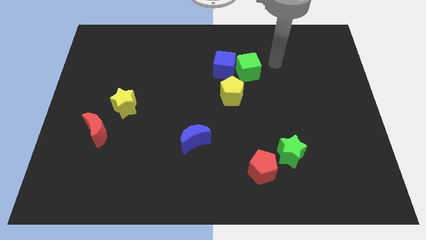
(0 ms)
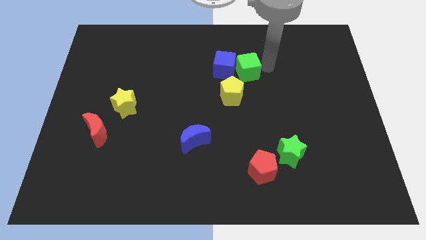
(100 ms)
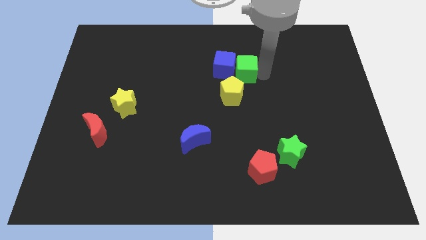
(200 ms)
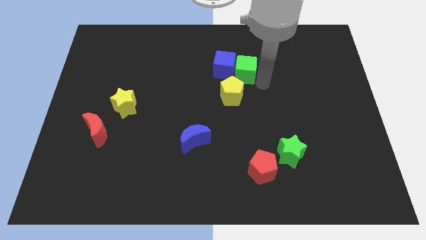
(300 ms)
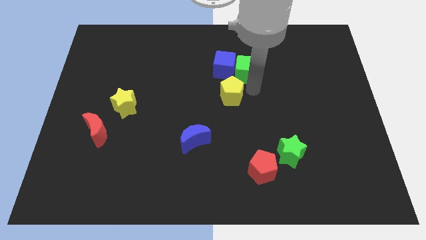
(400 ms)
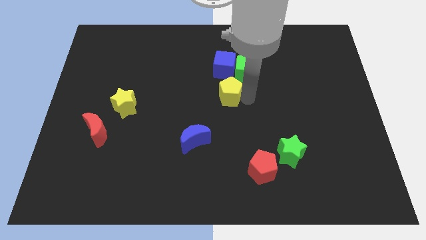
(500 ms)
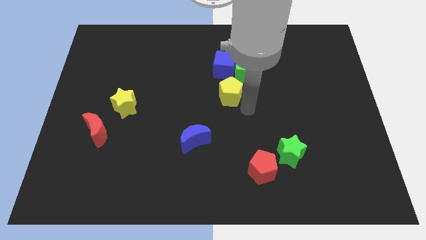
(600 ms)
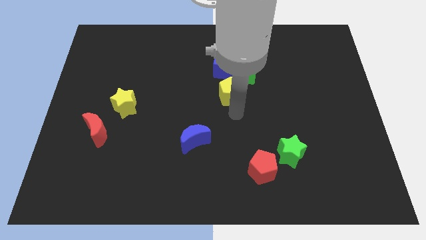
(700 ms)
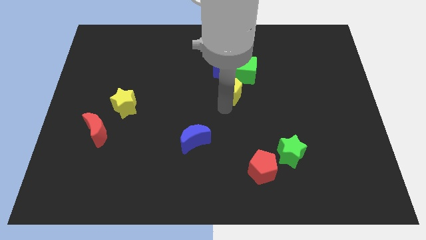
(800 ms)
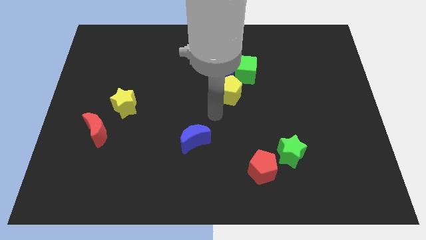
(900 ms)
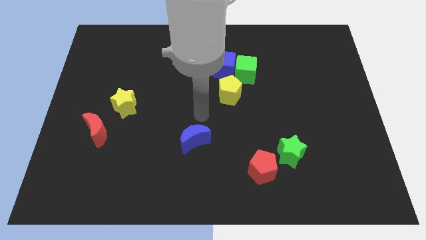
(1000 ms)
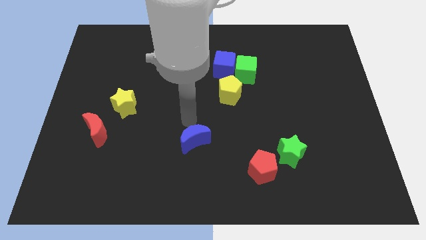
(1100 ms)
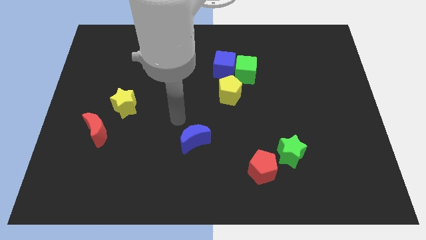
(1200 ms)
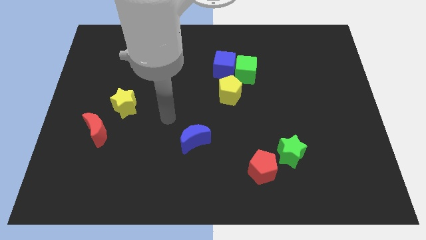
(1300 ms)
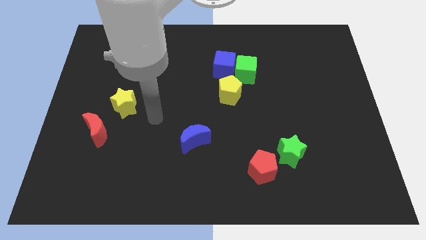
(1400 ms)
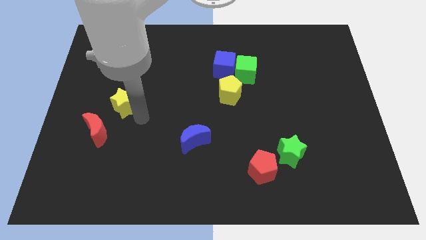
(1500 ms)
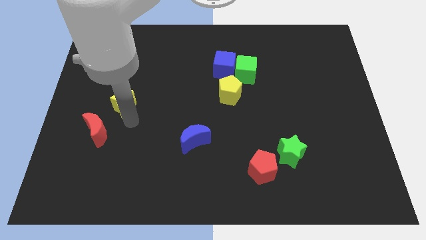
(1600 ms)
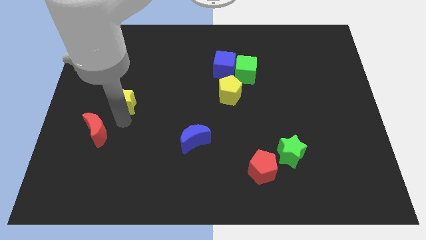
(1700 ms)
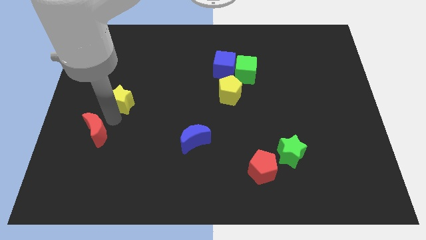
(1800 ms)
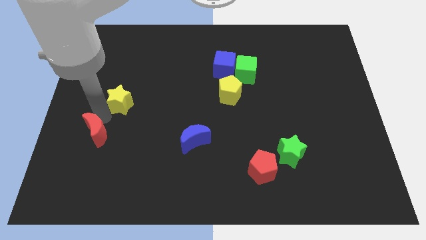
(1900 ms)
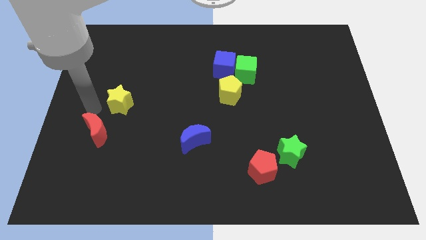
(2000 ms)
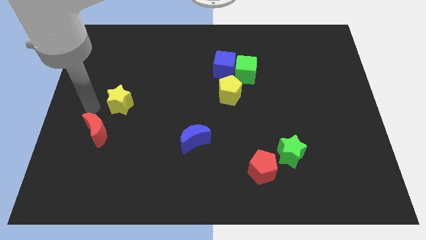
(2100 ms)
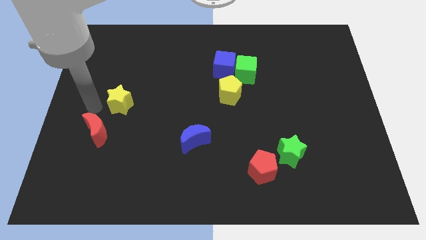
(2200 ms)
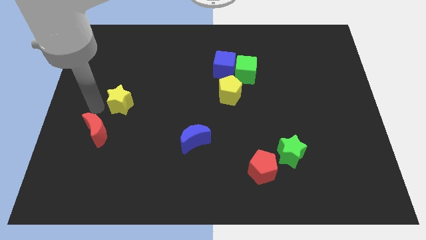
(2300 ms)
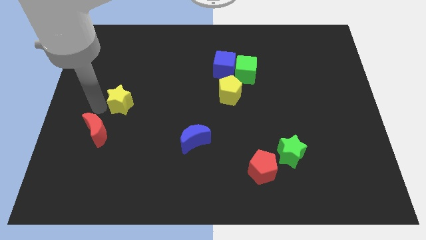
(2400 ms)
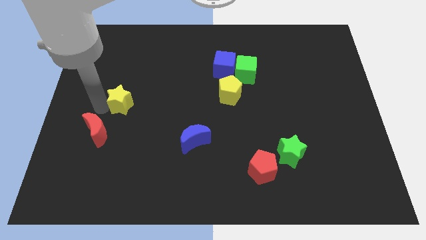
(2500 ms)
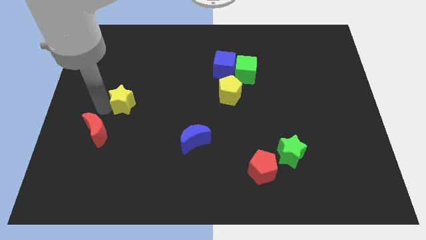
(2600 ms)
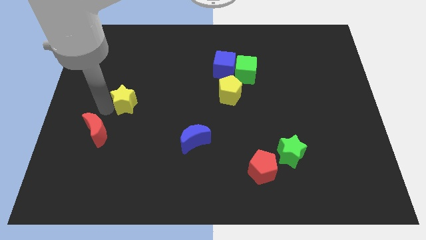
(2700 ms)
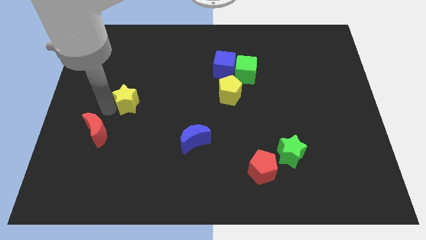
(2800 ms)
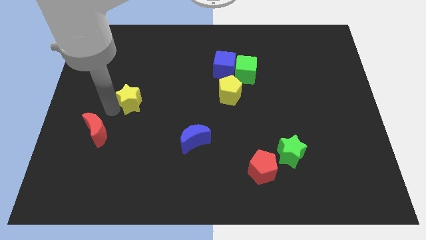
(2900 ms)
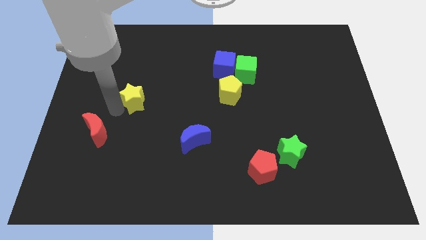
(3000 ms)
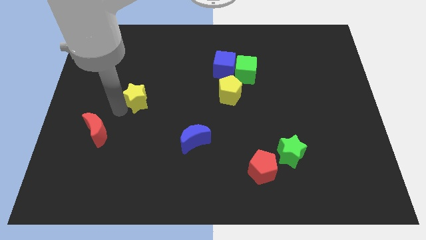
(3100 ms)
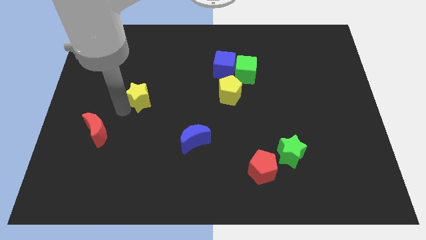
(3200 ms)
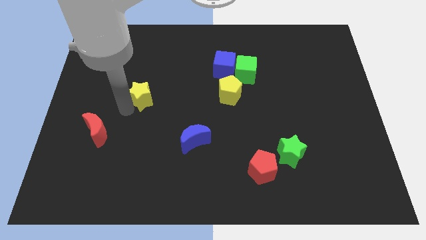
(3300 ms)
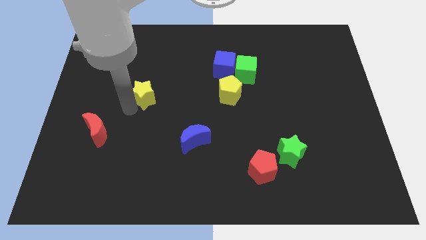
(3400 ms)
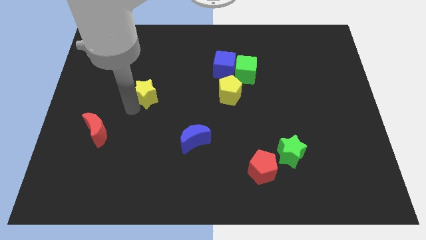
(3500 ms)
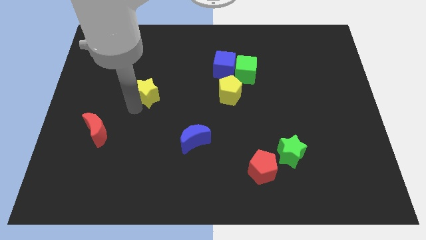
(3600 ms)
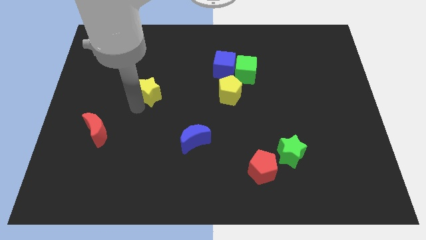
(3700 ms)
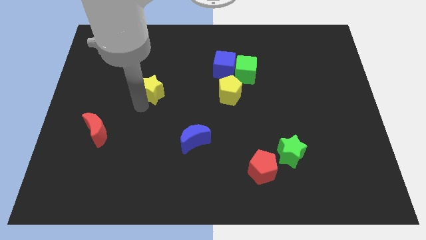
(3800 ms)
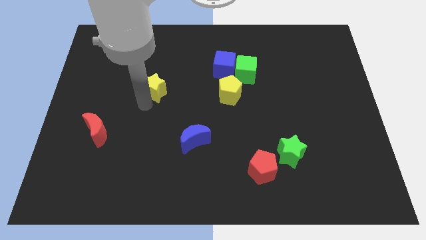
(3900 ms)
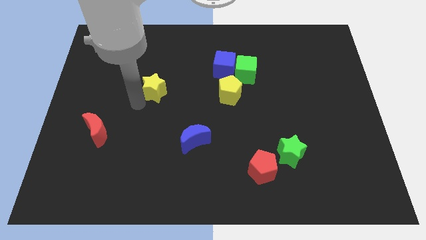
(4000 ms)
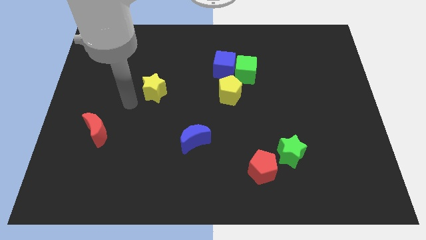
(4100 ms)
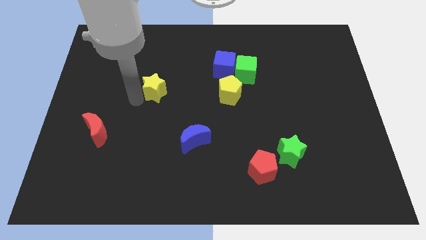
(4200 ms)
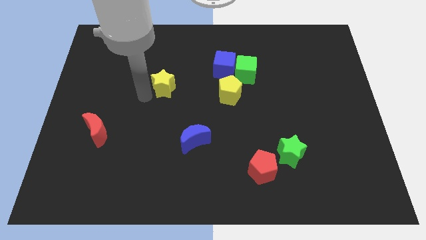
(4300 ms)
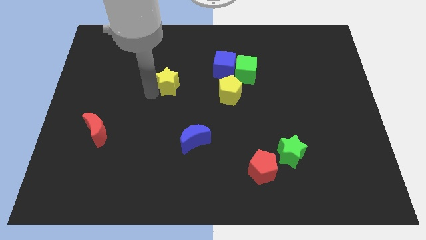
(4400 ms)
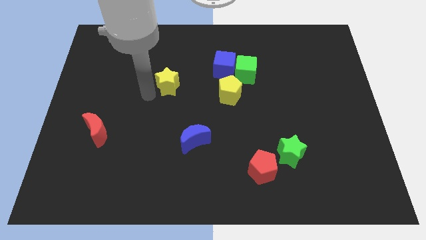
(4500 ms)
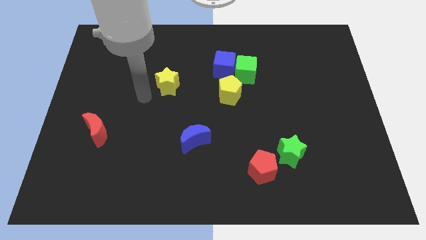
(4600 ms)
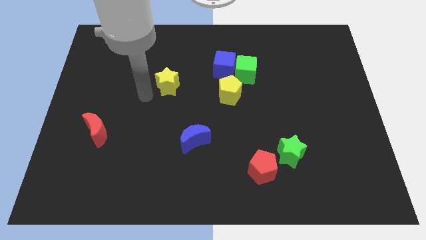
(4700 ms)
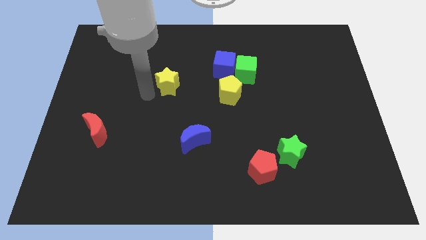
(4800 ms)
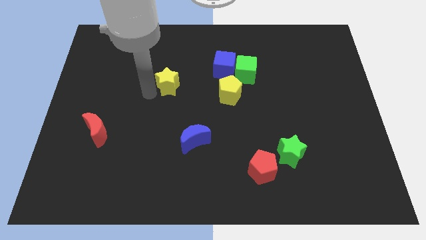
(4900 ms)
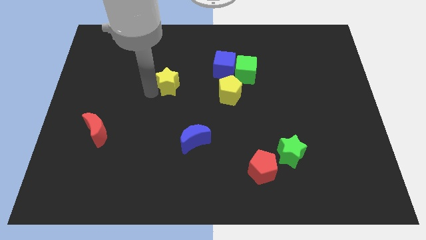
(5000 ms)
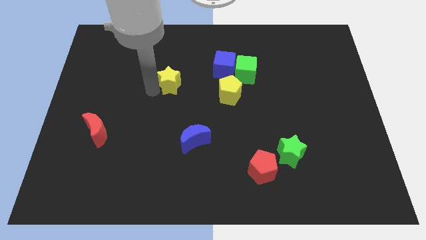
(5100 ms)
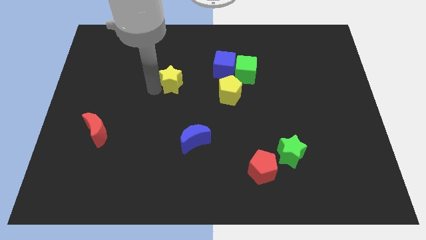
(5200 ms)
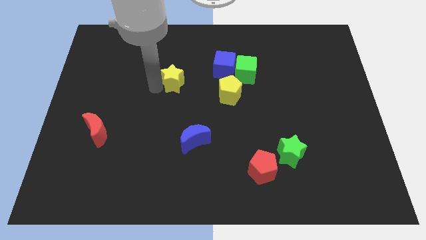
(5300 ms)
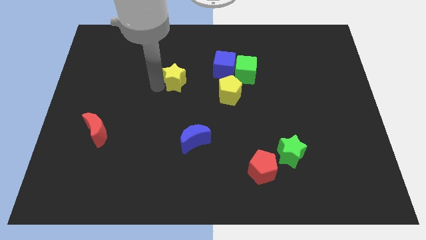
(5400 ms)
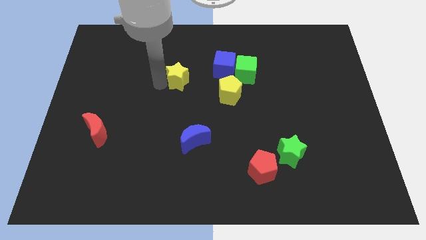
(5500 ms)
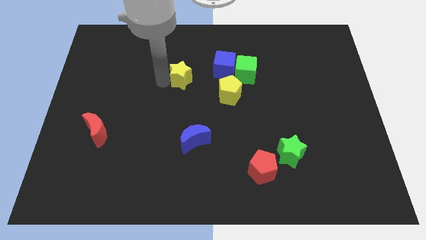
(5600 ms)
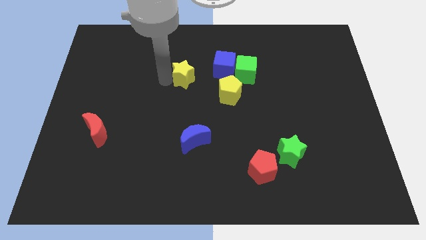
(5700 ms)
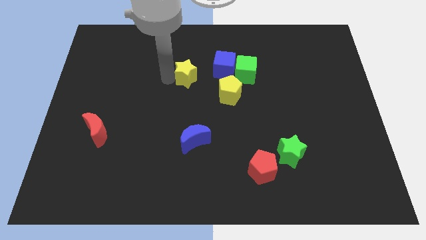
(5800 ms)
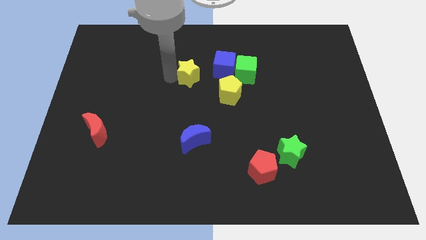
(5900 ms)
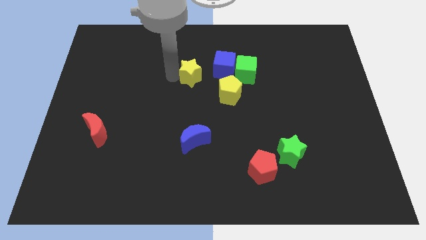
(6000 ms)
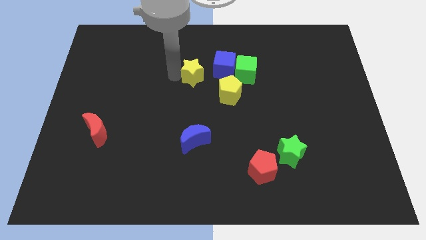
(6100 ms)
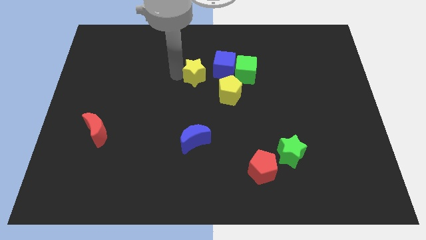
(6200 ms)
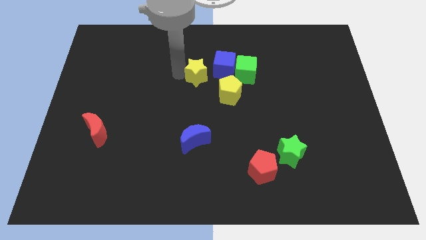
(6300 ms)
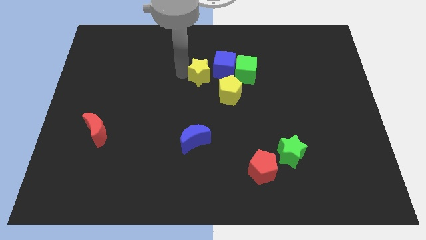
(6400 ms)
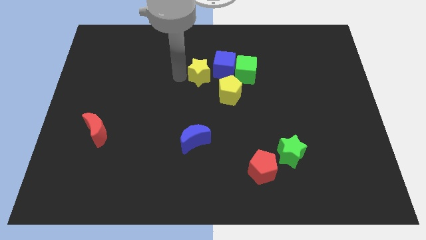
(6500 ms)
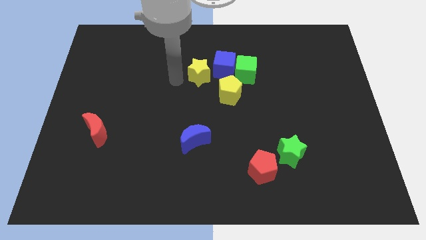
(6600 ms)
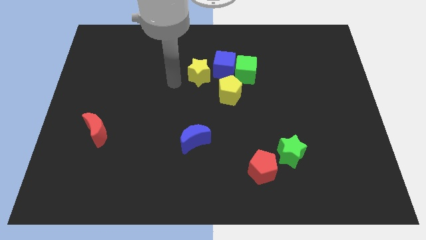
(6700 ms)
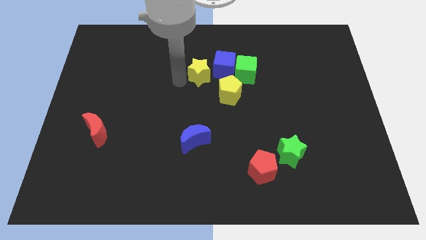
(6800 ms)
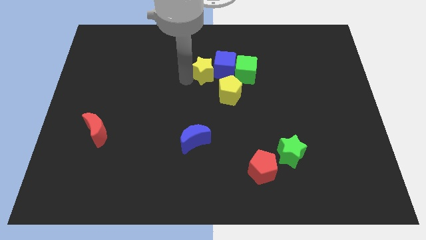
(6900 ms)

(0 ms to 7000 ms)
move the yellow star close to the blue cube

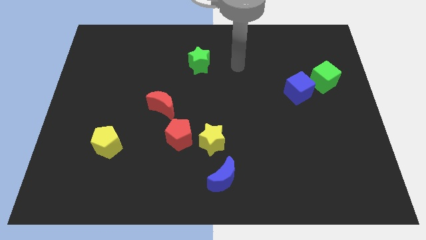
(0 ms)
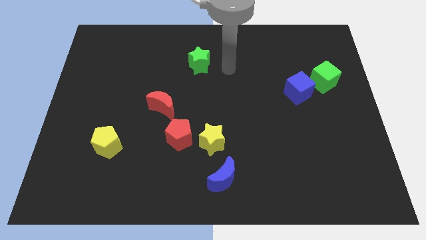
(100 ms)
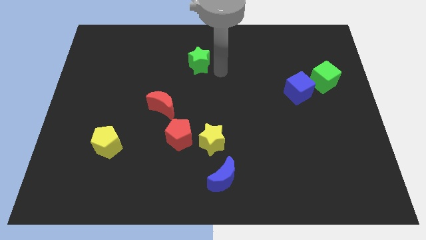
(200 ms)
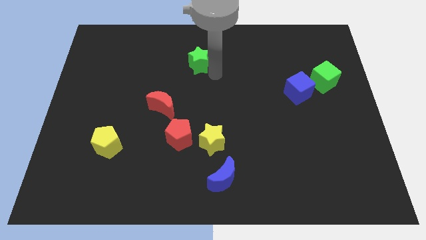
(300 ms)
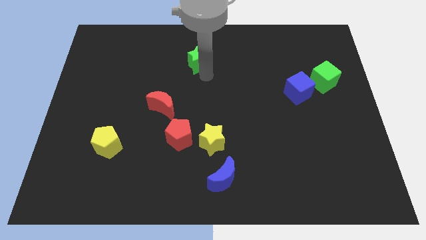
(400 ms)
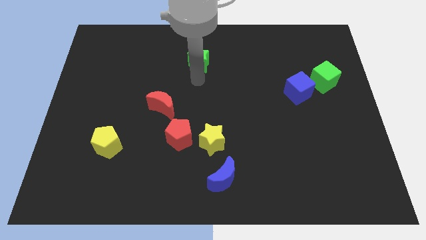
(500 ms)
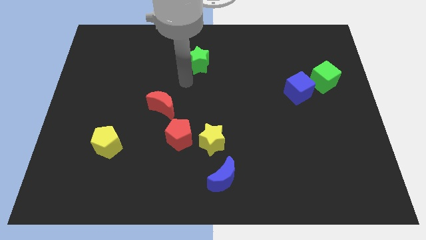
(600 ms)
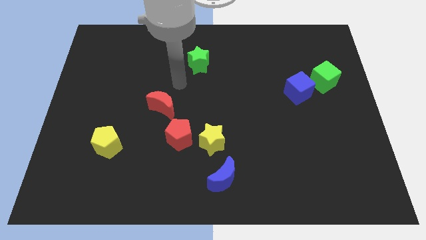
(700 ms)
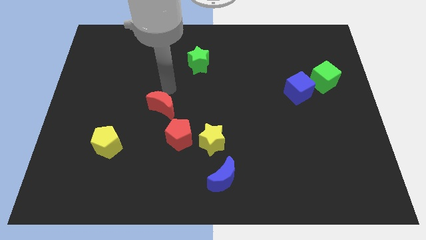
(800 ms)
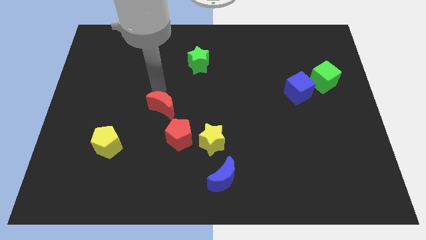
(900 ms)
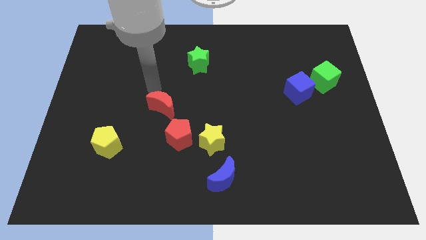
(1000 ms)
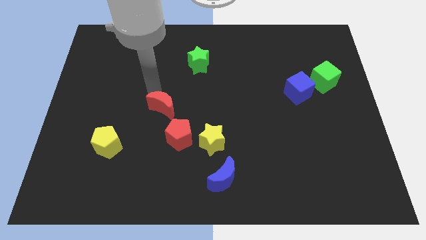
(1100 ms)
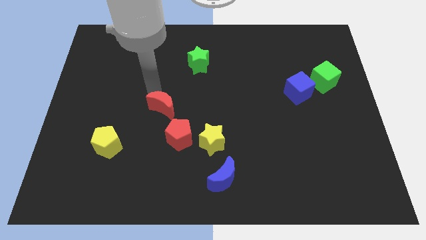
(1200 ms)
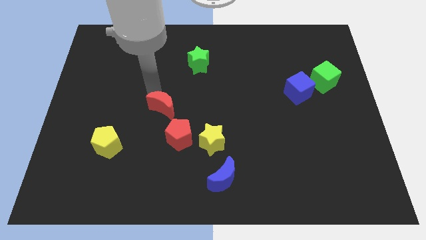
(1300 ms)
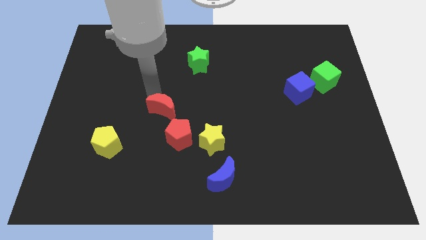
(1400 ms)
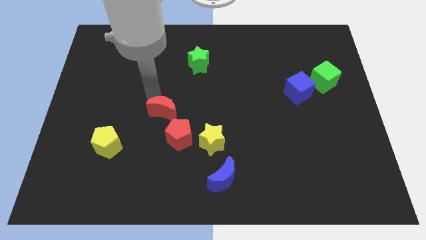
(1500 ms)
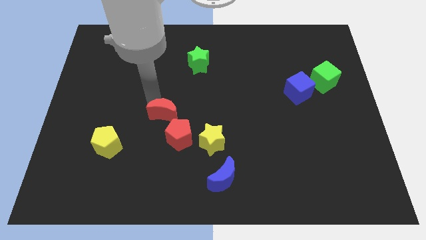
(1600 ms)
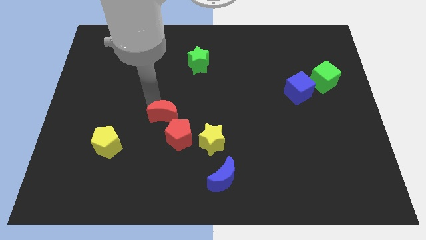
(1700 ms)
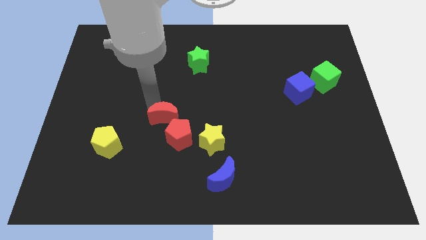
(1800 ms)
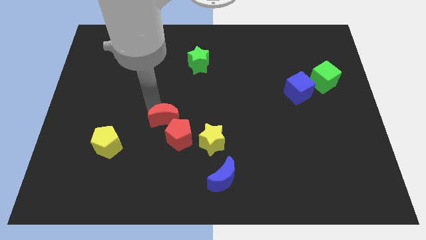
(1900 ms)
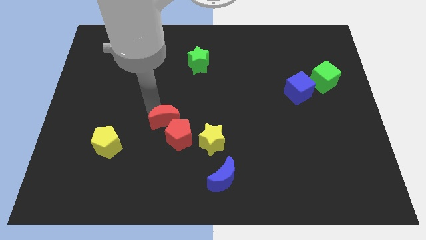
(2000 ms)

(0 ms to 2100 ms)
put the red moon to the red pentagon
